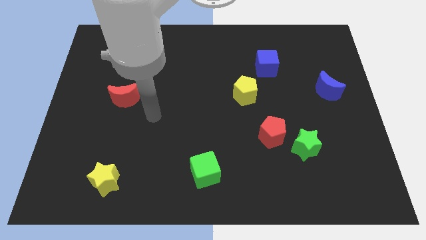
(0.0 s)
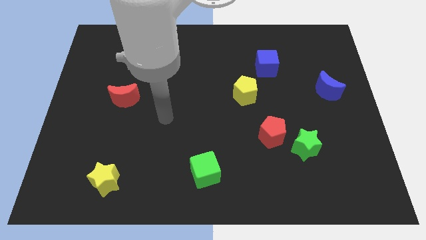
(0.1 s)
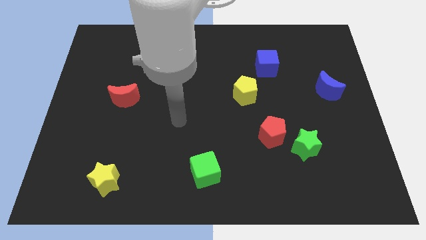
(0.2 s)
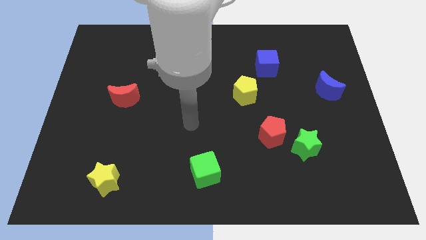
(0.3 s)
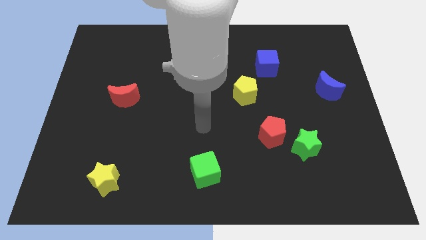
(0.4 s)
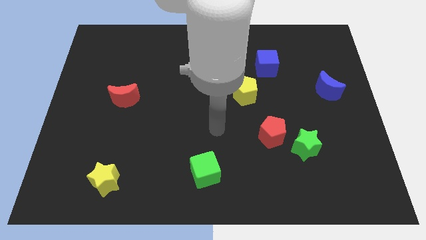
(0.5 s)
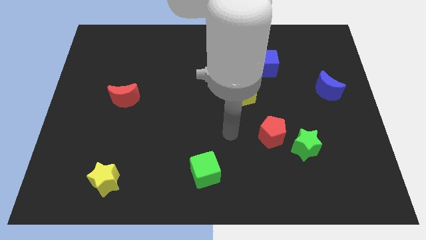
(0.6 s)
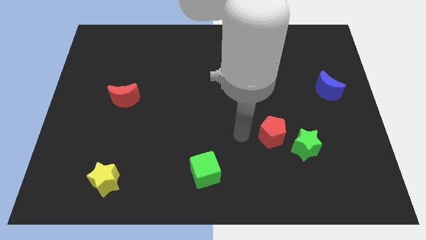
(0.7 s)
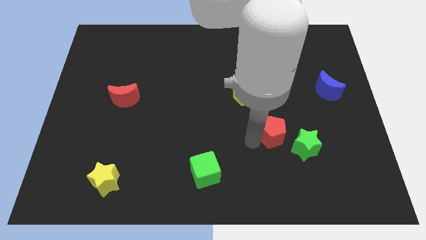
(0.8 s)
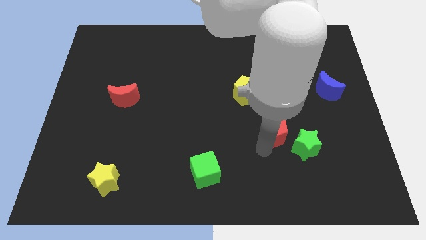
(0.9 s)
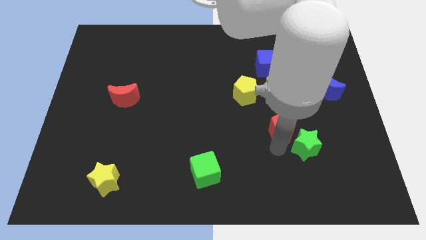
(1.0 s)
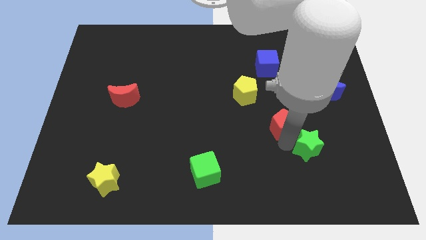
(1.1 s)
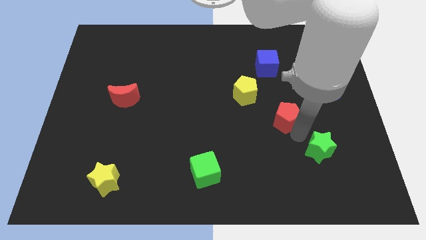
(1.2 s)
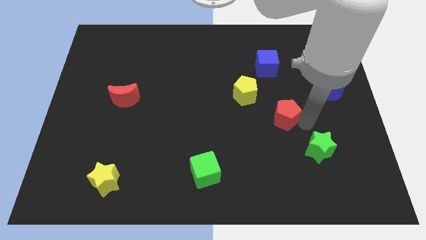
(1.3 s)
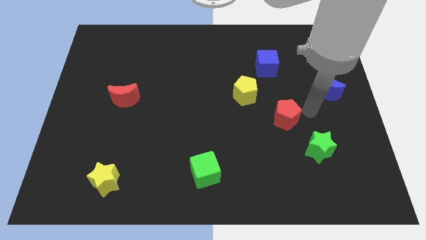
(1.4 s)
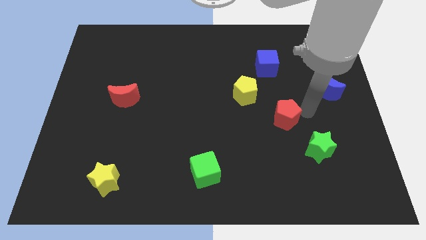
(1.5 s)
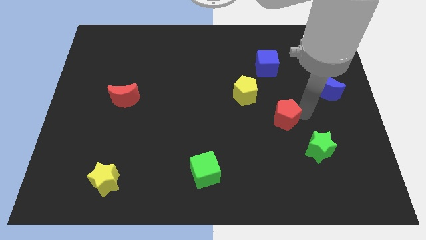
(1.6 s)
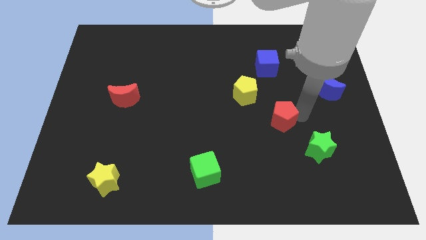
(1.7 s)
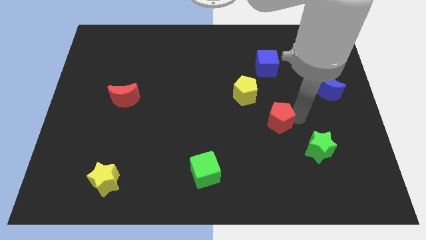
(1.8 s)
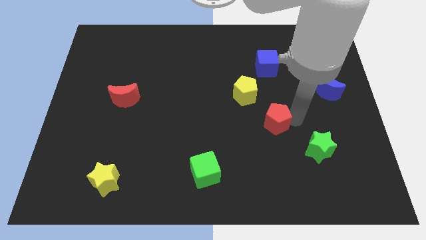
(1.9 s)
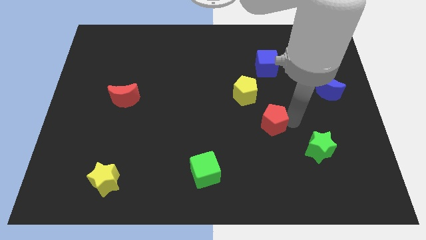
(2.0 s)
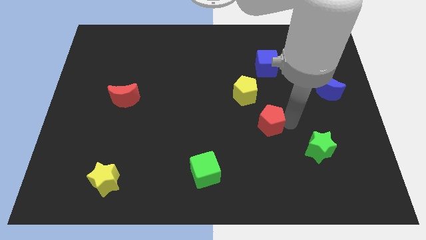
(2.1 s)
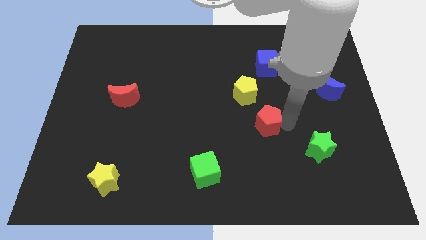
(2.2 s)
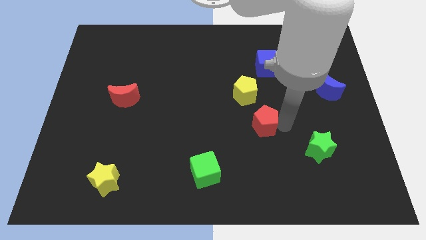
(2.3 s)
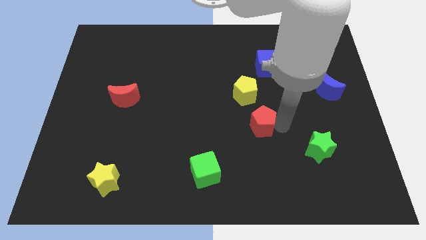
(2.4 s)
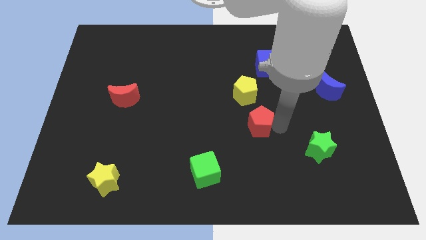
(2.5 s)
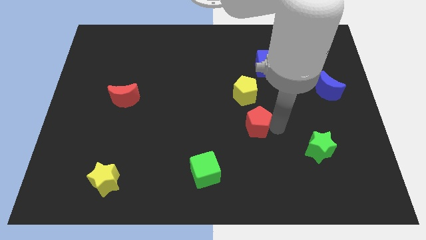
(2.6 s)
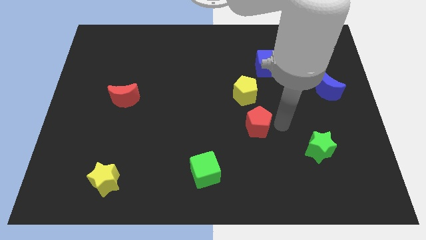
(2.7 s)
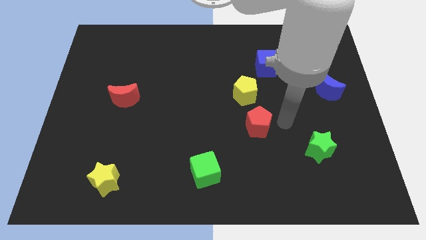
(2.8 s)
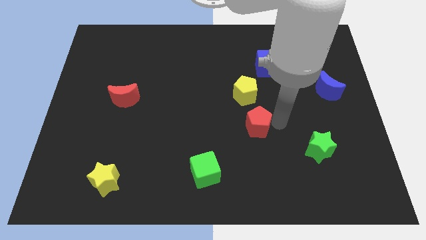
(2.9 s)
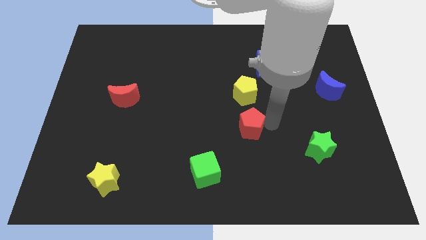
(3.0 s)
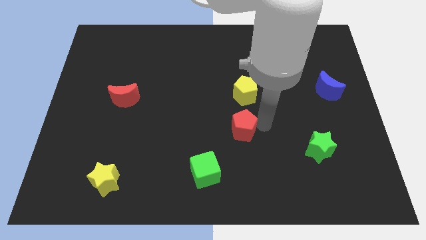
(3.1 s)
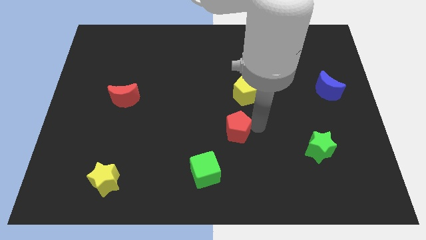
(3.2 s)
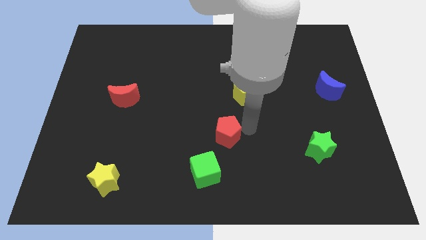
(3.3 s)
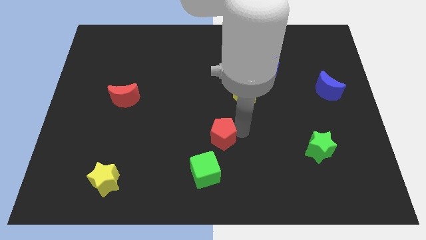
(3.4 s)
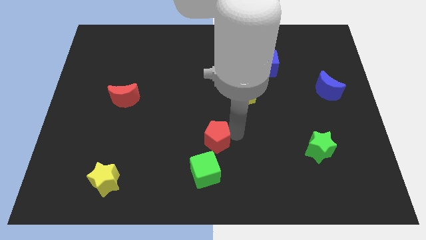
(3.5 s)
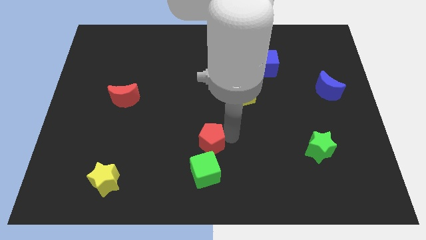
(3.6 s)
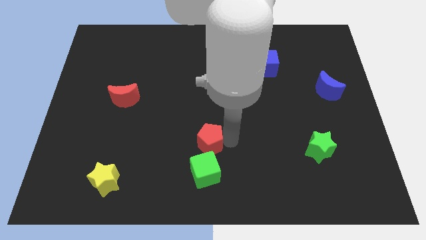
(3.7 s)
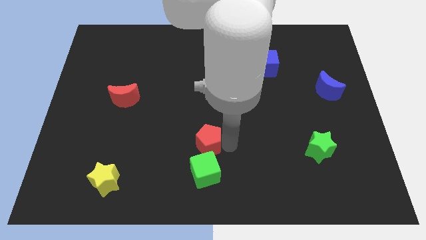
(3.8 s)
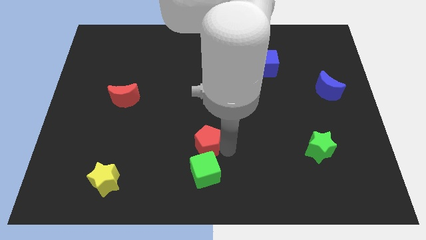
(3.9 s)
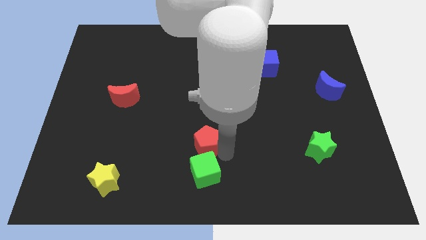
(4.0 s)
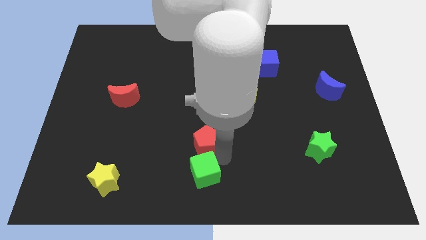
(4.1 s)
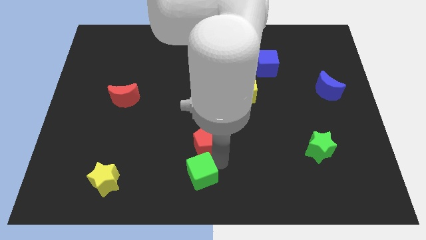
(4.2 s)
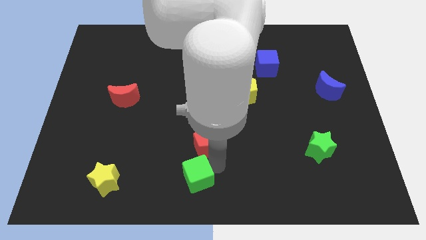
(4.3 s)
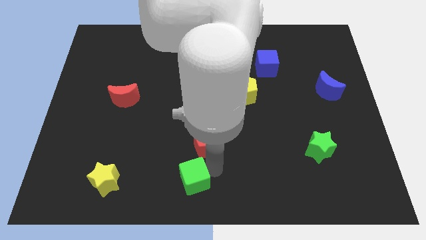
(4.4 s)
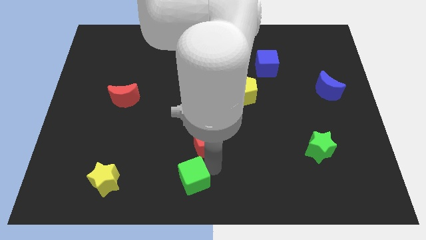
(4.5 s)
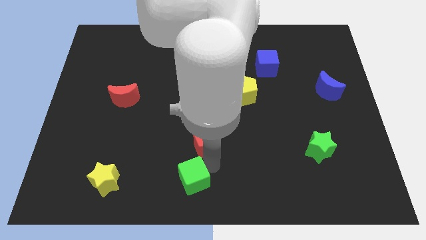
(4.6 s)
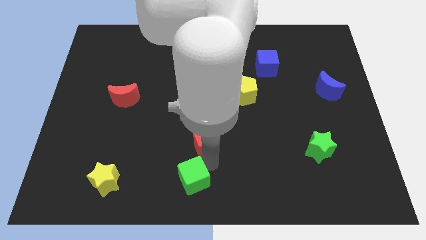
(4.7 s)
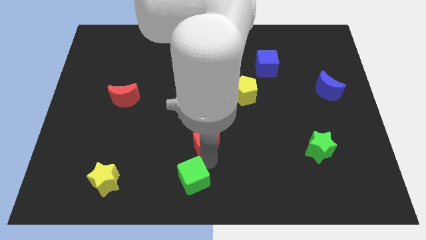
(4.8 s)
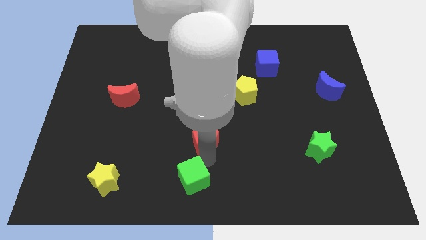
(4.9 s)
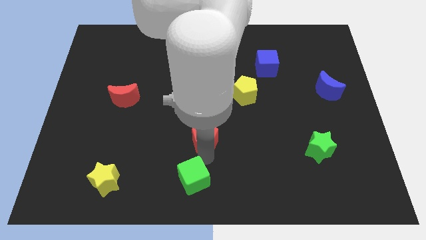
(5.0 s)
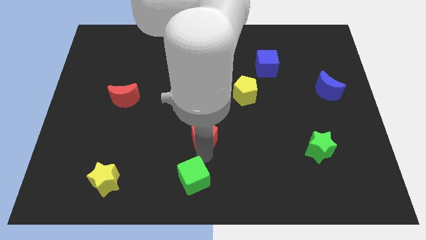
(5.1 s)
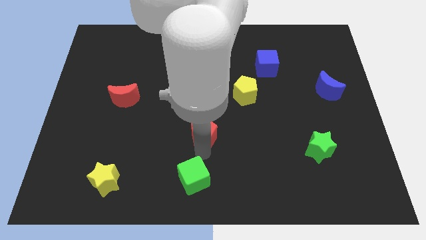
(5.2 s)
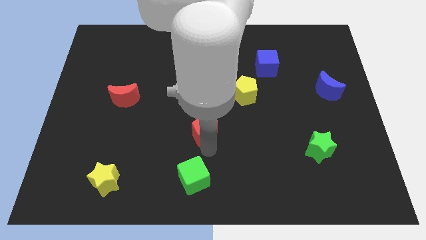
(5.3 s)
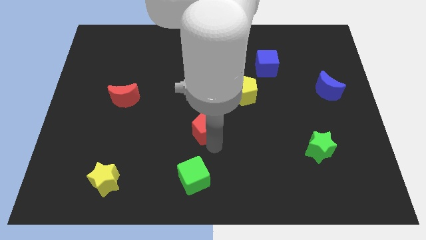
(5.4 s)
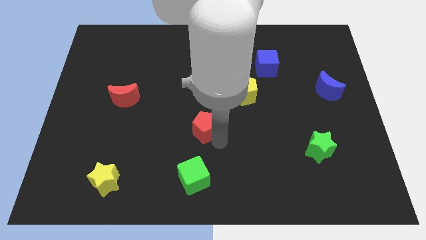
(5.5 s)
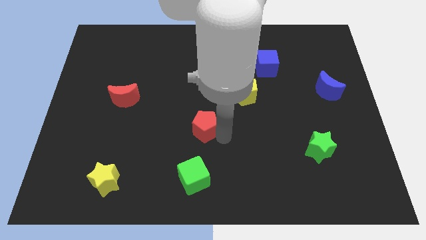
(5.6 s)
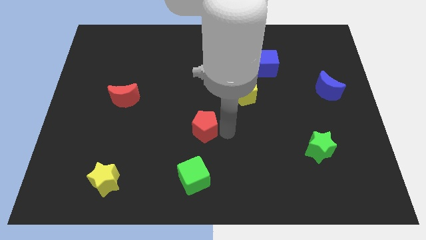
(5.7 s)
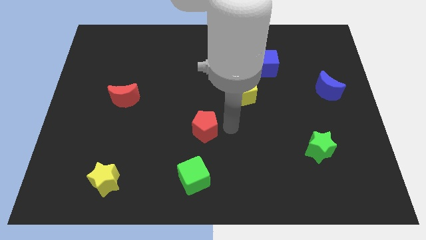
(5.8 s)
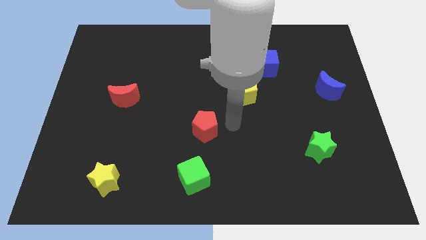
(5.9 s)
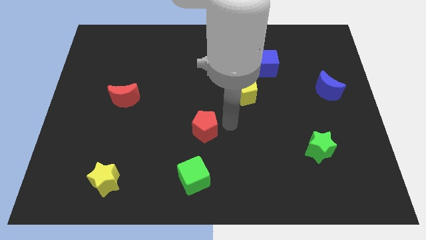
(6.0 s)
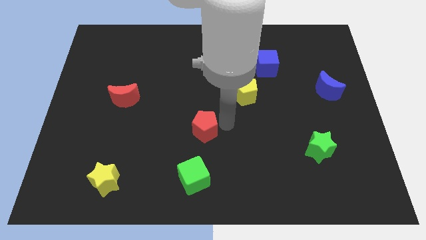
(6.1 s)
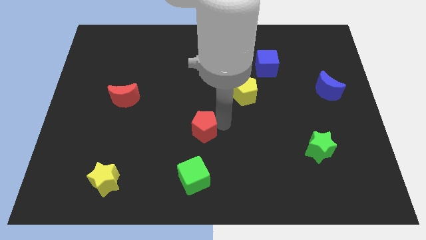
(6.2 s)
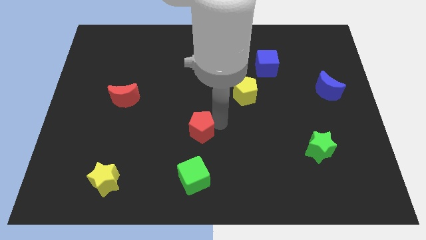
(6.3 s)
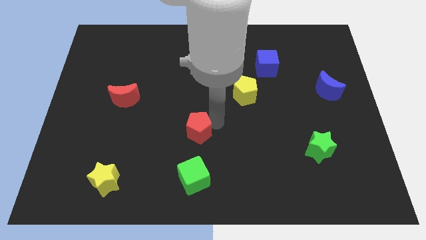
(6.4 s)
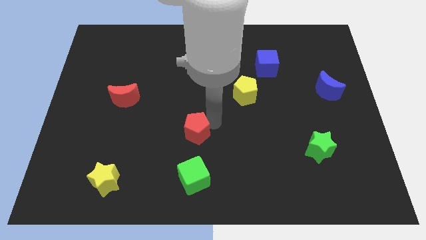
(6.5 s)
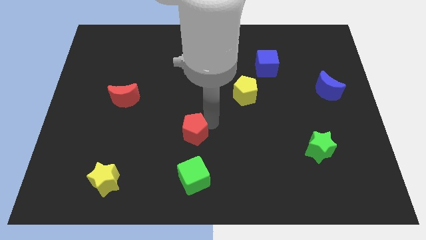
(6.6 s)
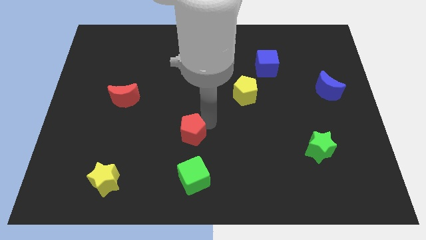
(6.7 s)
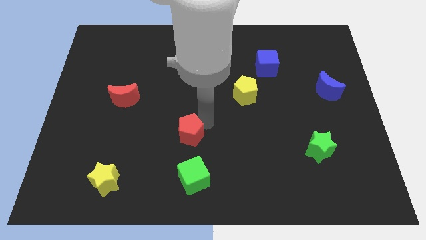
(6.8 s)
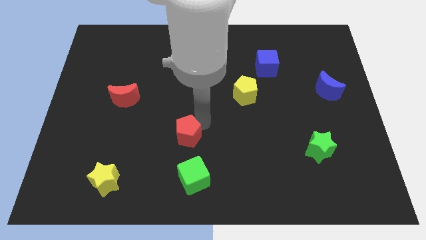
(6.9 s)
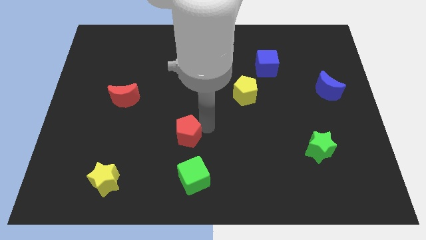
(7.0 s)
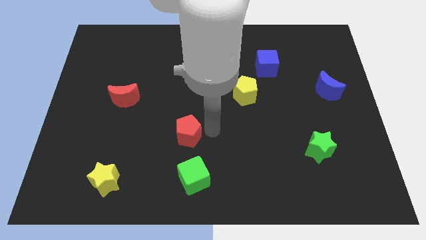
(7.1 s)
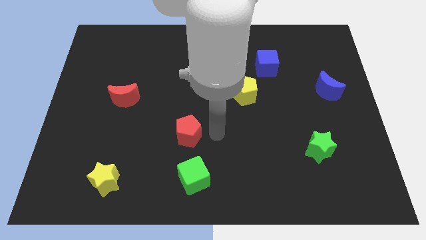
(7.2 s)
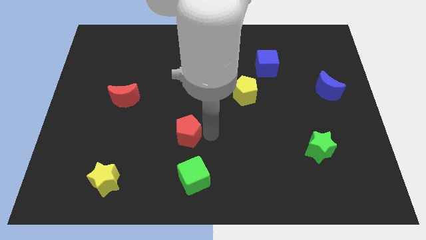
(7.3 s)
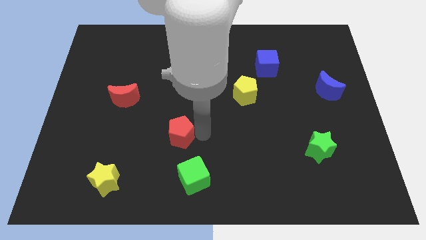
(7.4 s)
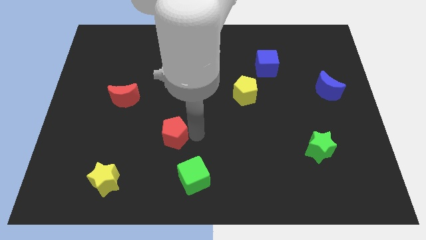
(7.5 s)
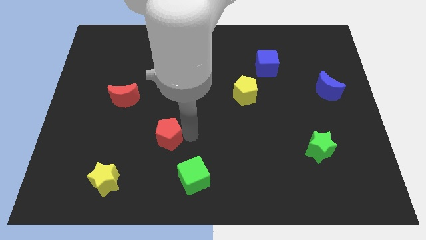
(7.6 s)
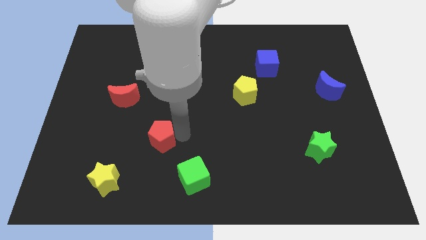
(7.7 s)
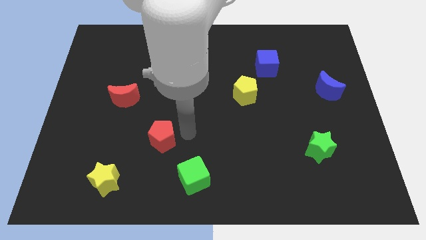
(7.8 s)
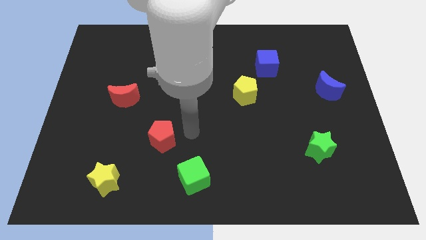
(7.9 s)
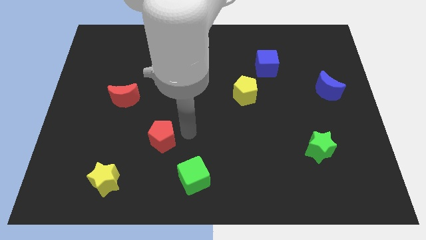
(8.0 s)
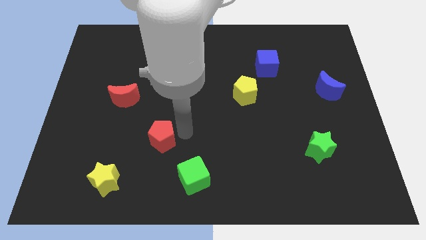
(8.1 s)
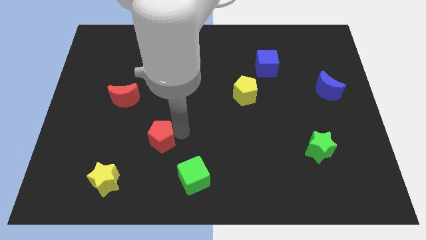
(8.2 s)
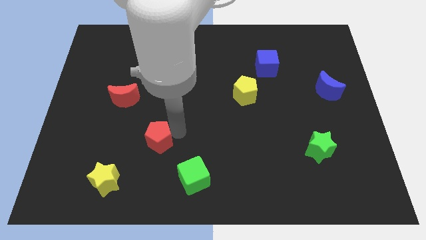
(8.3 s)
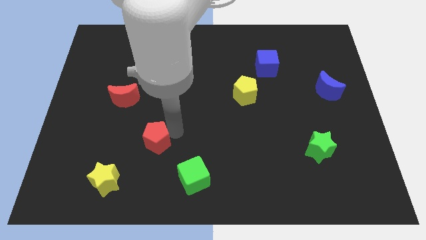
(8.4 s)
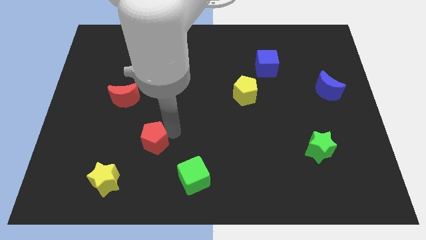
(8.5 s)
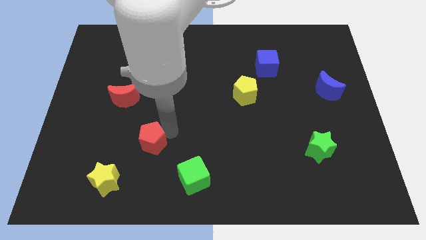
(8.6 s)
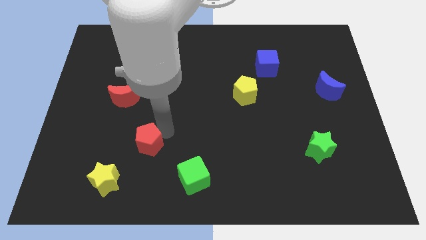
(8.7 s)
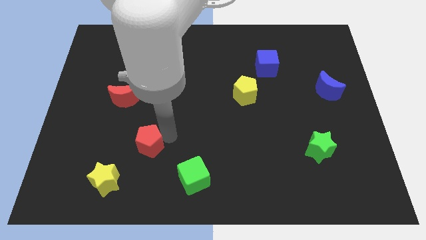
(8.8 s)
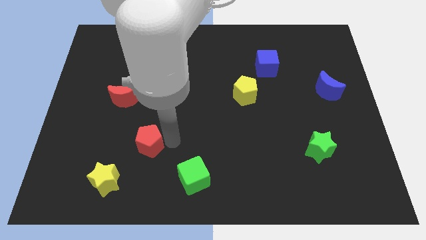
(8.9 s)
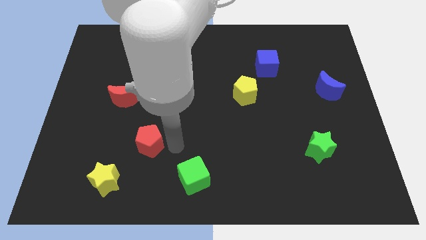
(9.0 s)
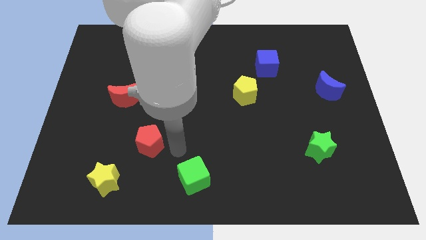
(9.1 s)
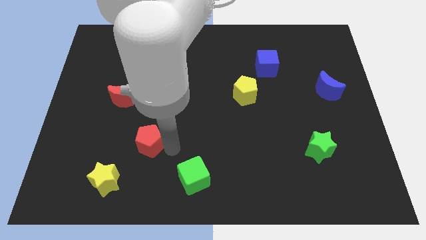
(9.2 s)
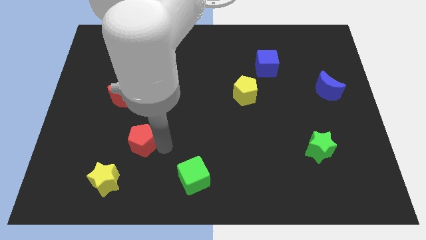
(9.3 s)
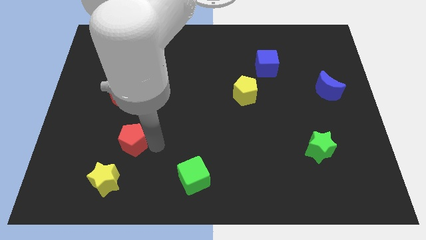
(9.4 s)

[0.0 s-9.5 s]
move the red pentagon below the red moon
